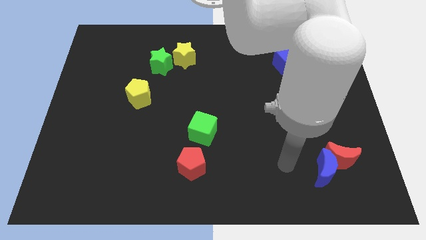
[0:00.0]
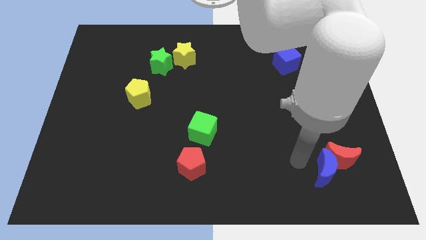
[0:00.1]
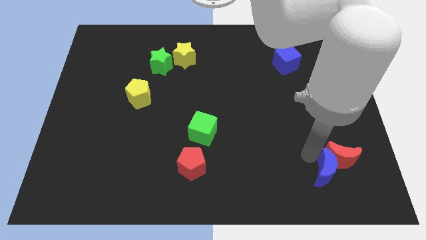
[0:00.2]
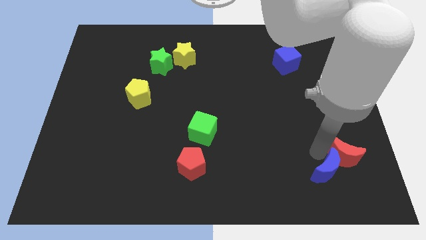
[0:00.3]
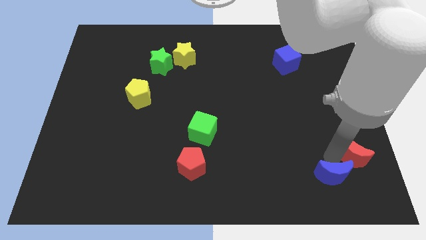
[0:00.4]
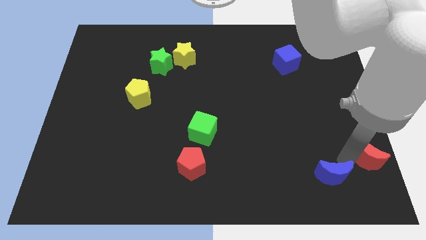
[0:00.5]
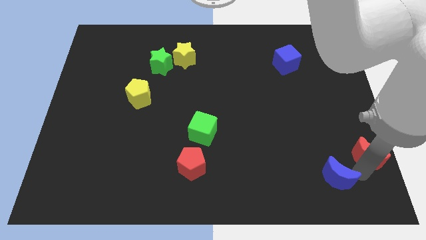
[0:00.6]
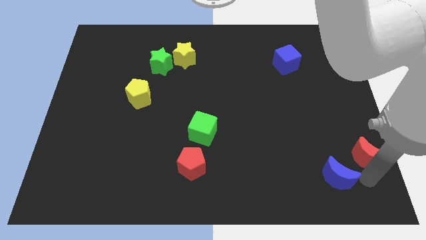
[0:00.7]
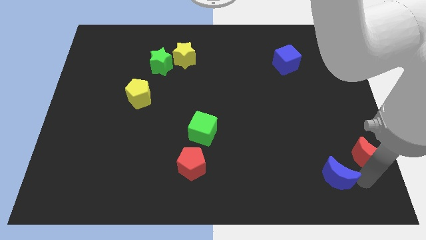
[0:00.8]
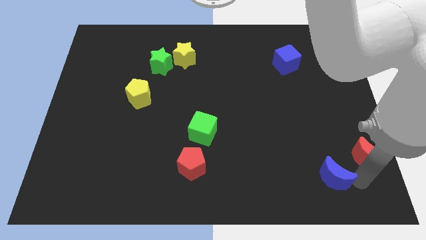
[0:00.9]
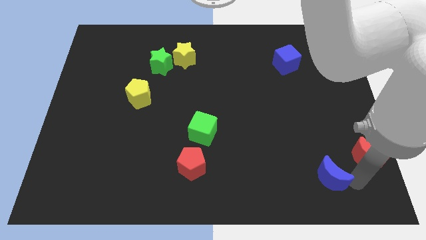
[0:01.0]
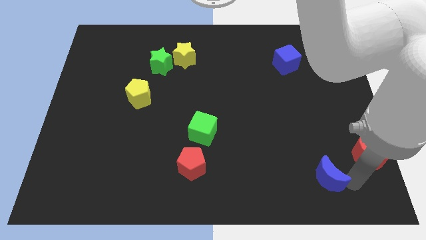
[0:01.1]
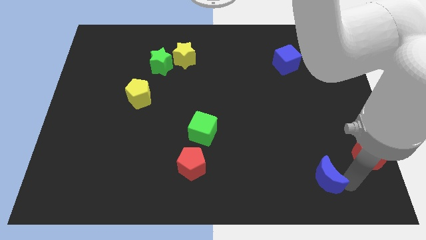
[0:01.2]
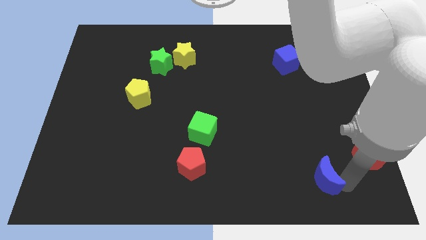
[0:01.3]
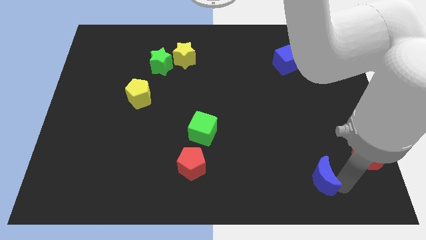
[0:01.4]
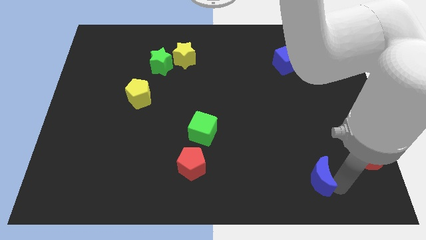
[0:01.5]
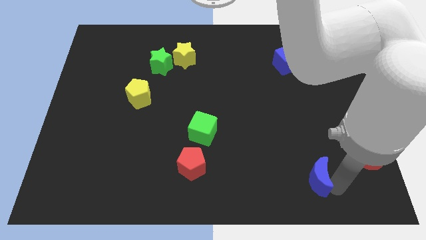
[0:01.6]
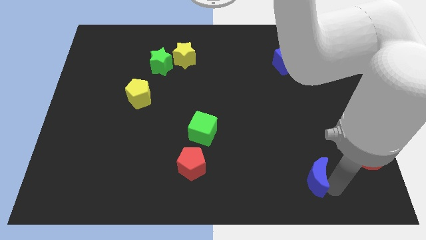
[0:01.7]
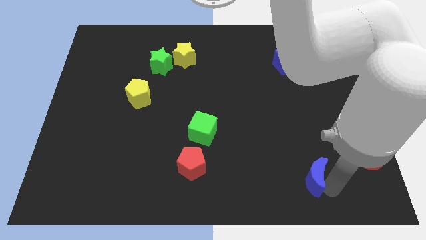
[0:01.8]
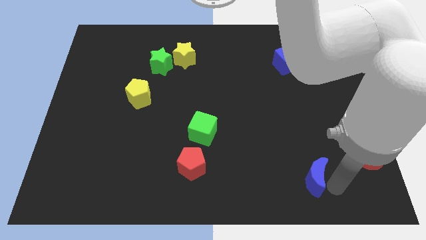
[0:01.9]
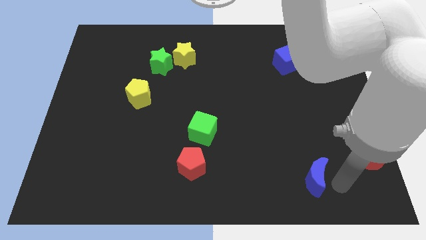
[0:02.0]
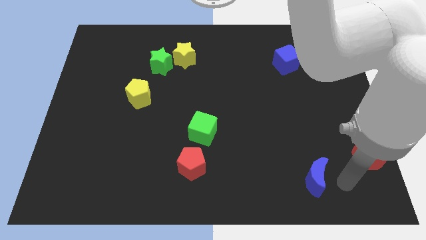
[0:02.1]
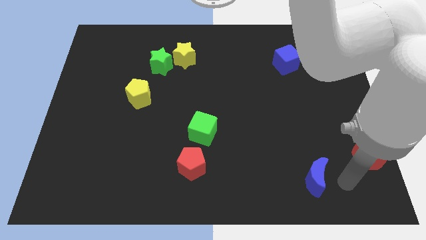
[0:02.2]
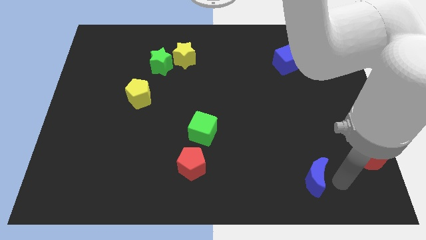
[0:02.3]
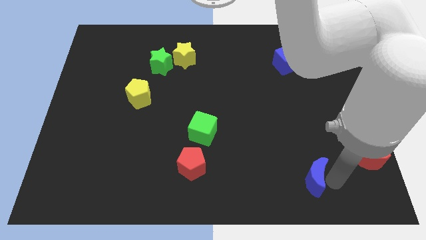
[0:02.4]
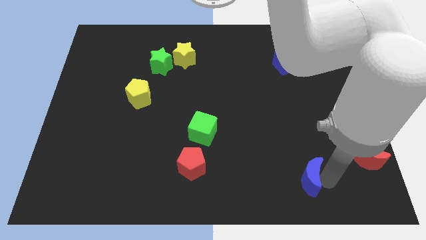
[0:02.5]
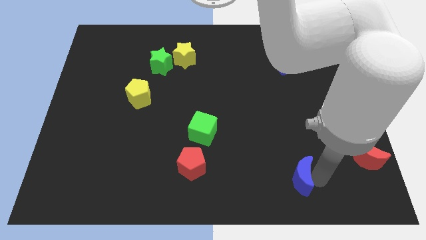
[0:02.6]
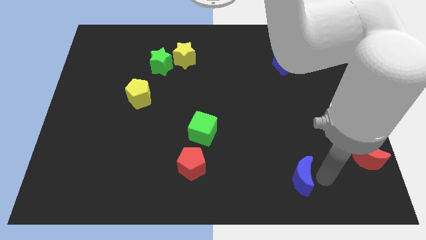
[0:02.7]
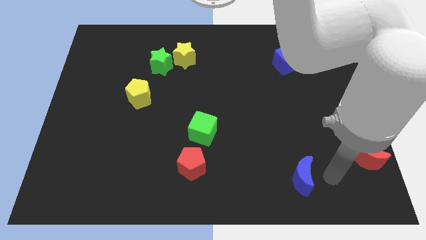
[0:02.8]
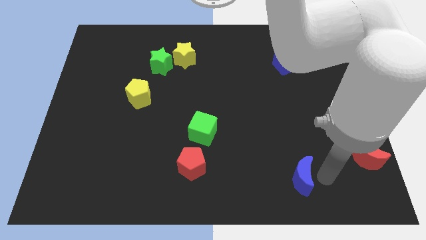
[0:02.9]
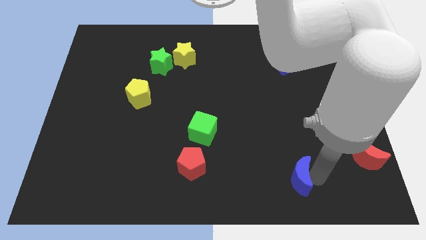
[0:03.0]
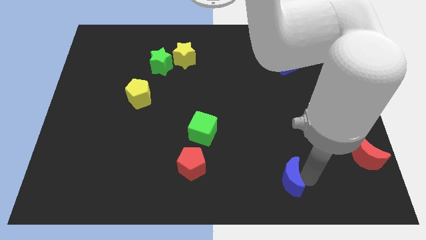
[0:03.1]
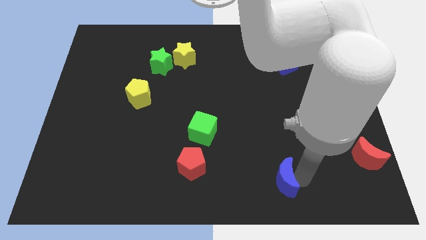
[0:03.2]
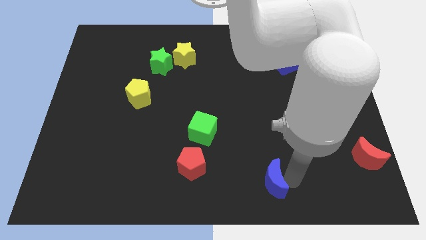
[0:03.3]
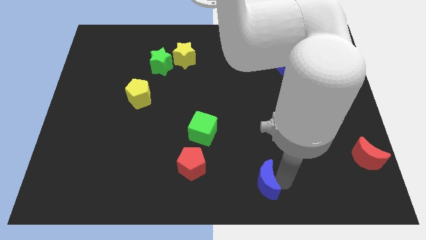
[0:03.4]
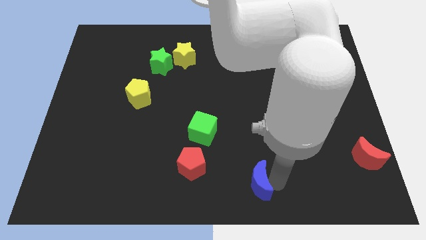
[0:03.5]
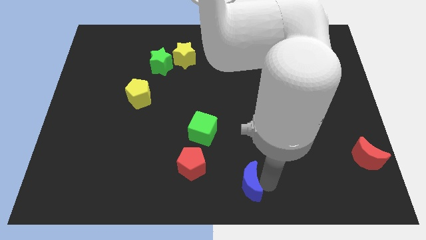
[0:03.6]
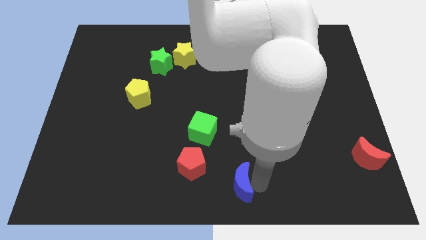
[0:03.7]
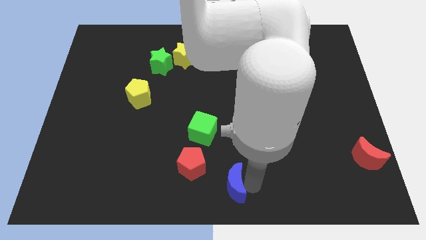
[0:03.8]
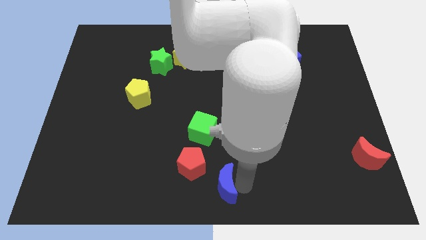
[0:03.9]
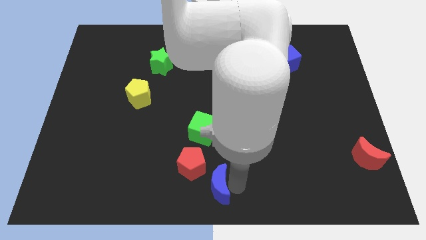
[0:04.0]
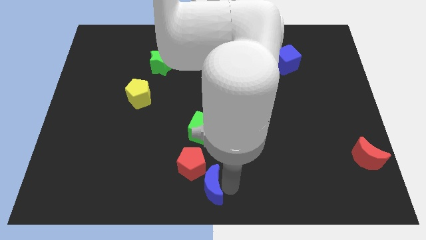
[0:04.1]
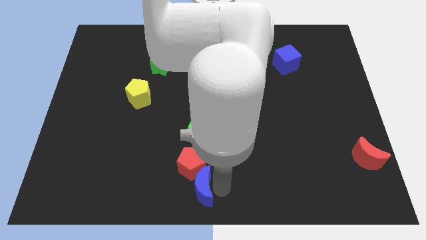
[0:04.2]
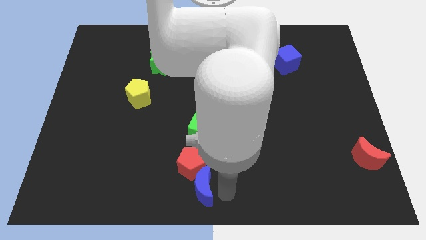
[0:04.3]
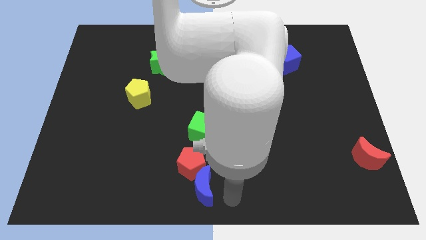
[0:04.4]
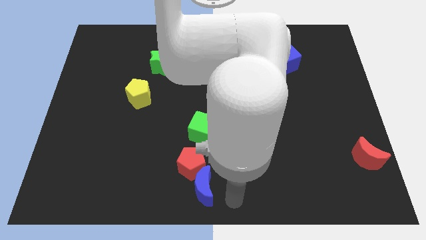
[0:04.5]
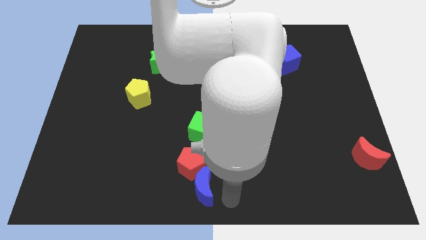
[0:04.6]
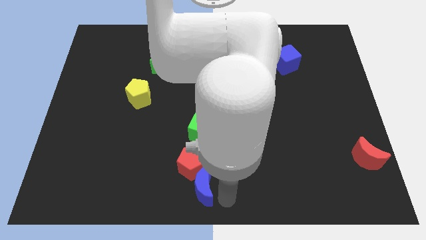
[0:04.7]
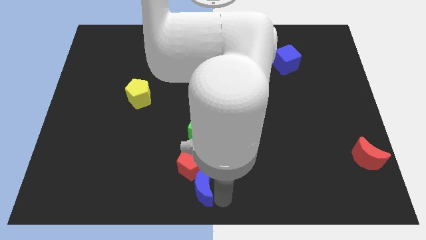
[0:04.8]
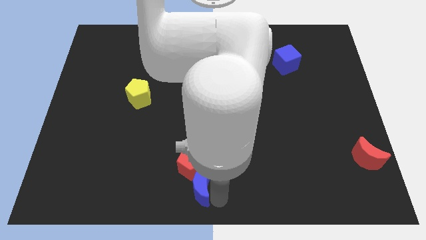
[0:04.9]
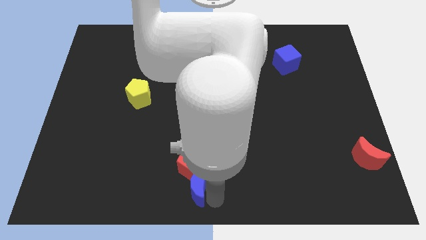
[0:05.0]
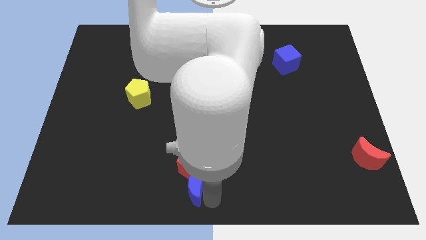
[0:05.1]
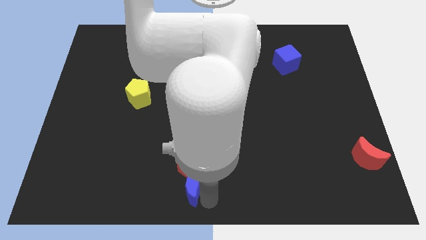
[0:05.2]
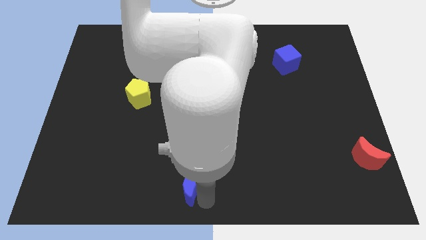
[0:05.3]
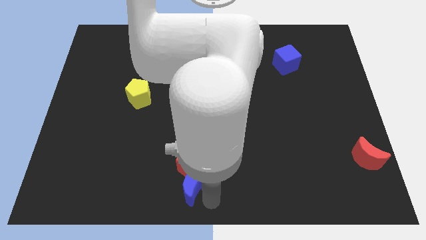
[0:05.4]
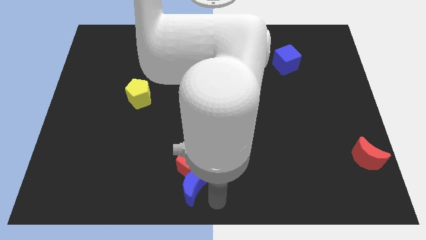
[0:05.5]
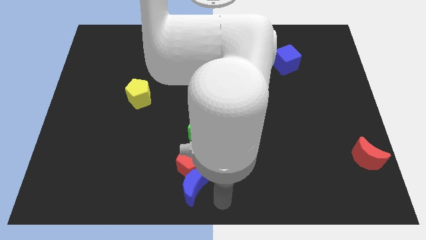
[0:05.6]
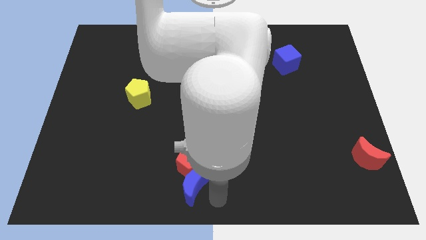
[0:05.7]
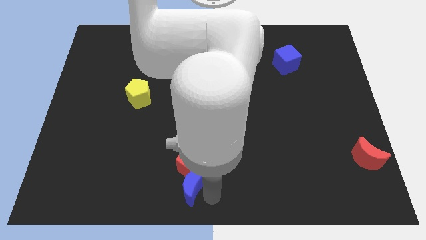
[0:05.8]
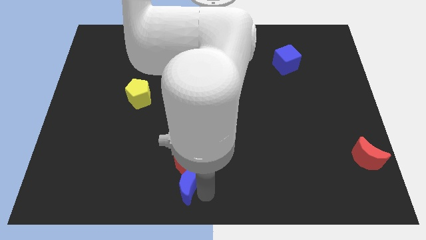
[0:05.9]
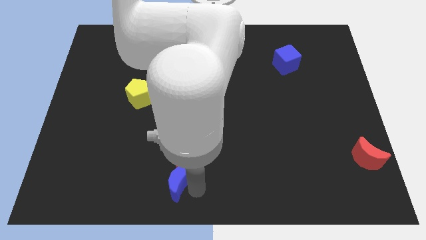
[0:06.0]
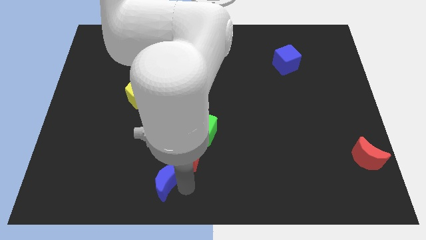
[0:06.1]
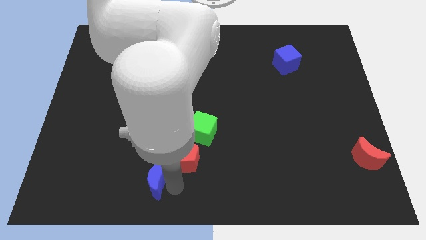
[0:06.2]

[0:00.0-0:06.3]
move the blue moon left of the red pentagon

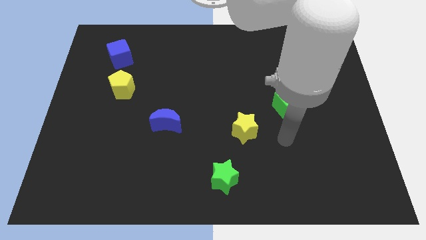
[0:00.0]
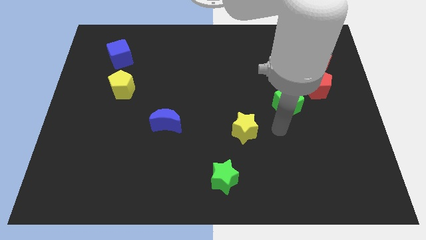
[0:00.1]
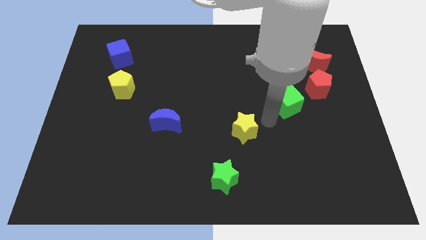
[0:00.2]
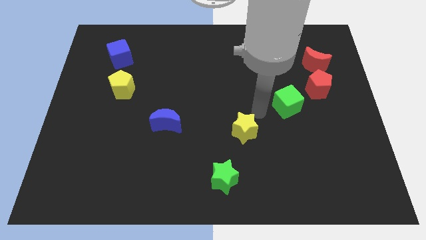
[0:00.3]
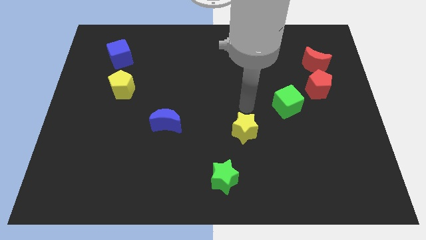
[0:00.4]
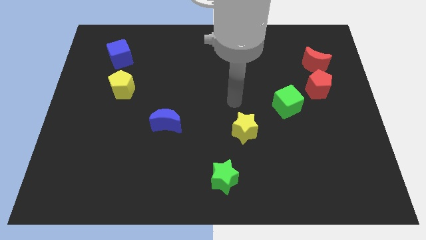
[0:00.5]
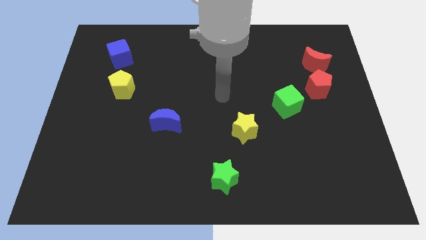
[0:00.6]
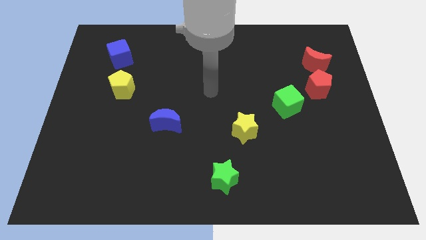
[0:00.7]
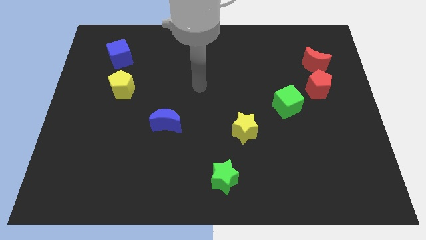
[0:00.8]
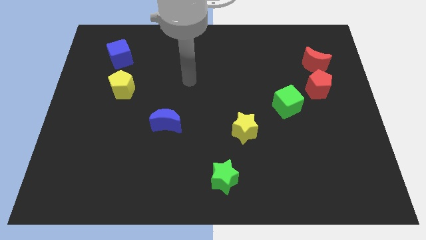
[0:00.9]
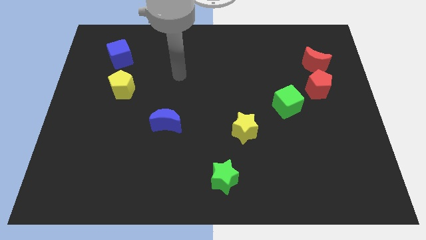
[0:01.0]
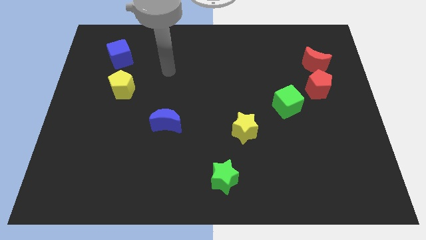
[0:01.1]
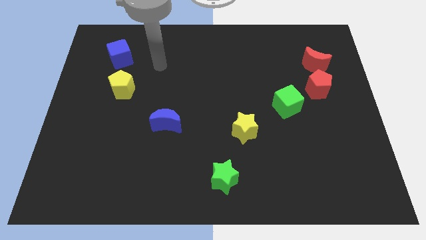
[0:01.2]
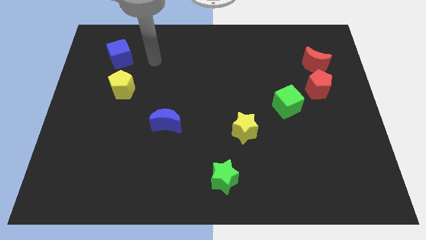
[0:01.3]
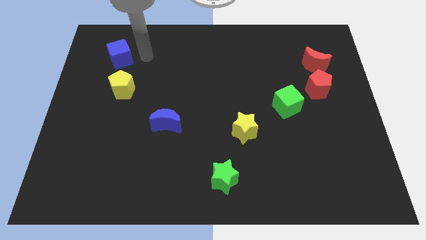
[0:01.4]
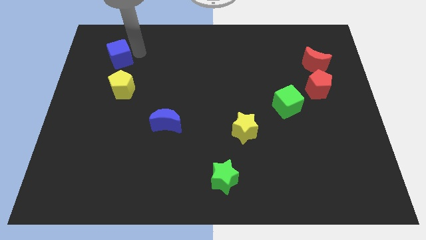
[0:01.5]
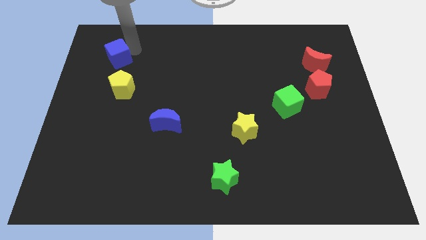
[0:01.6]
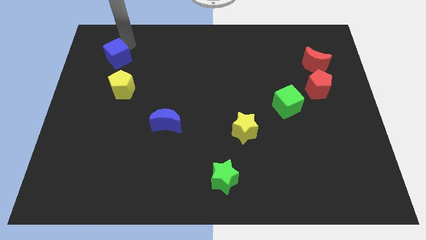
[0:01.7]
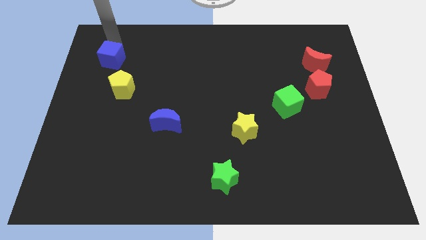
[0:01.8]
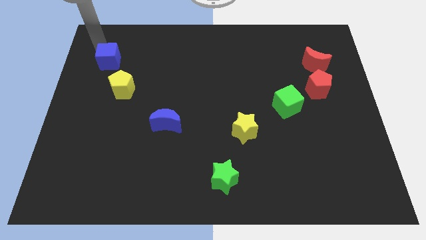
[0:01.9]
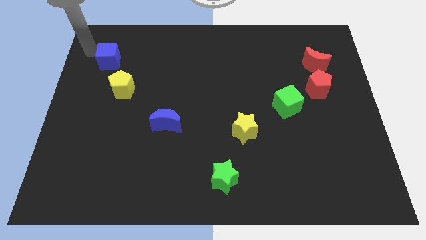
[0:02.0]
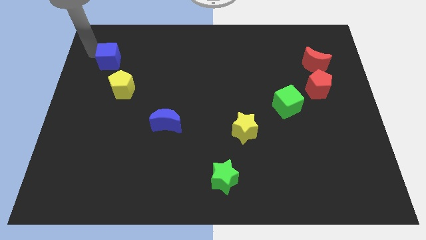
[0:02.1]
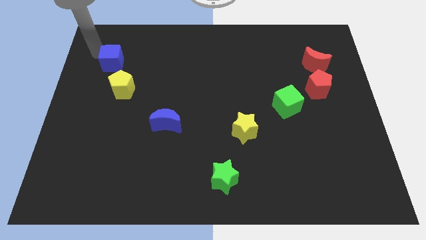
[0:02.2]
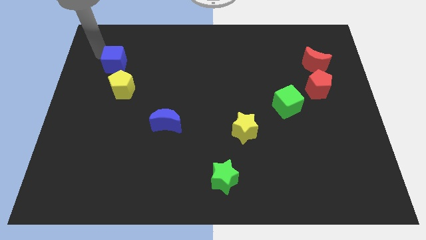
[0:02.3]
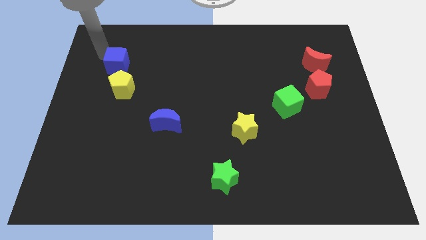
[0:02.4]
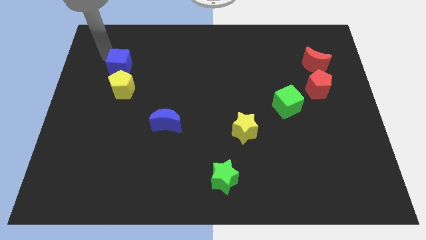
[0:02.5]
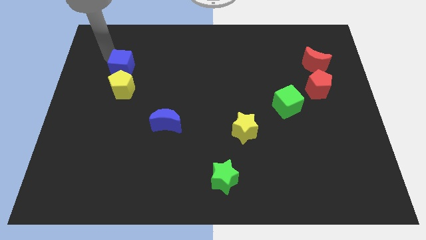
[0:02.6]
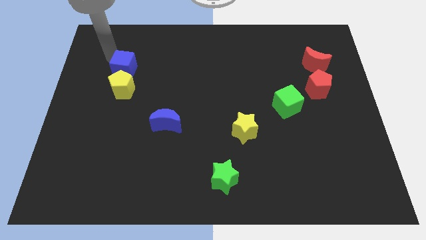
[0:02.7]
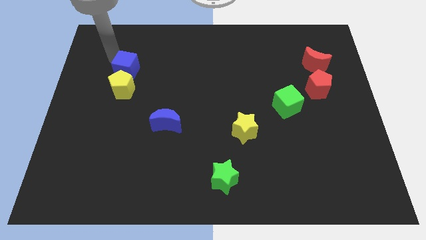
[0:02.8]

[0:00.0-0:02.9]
push the blue cube diagonally up and to the right of the yellow pentagon
